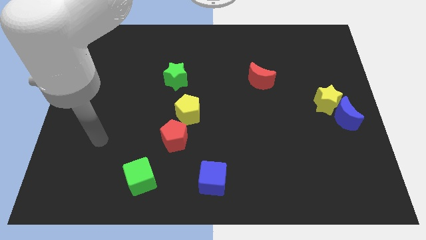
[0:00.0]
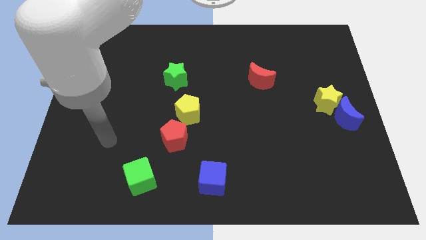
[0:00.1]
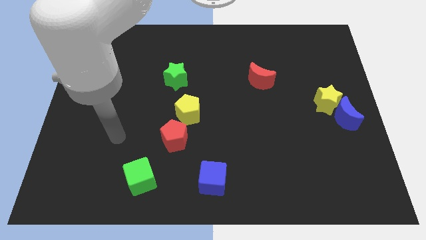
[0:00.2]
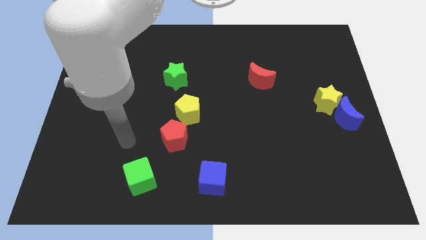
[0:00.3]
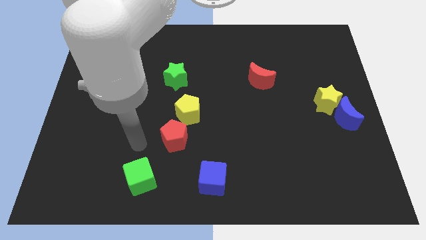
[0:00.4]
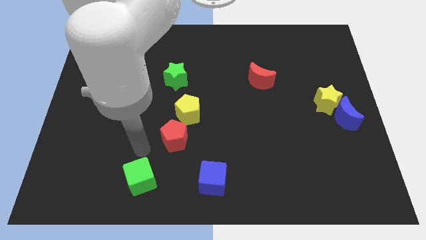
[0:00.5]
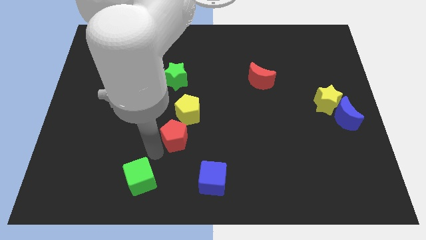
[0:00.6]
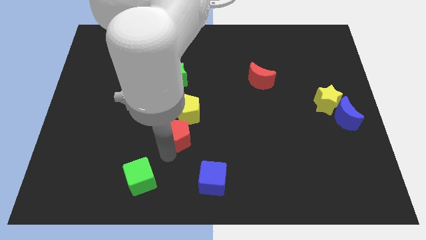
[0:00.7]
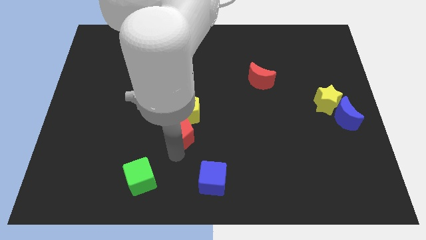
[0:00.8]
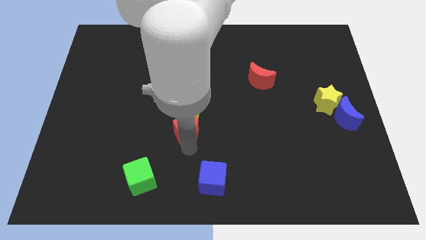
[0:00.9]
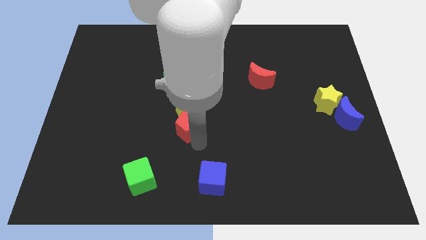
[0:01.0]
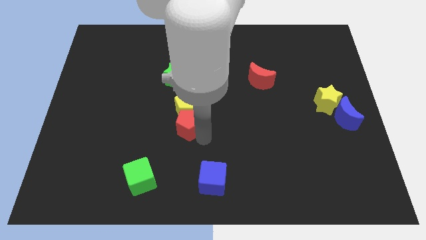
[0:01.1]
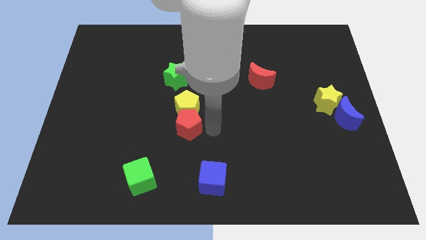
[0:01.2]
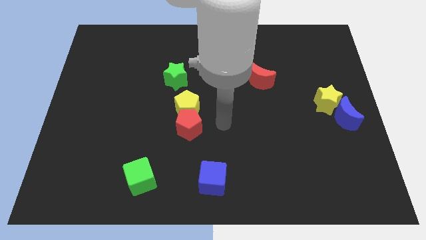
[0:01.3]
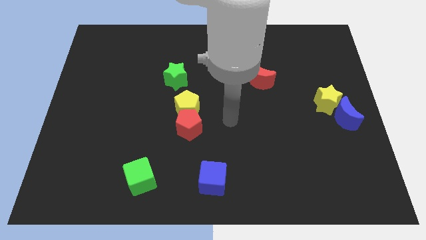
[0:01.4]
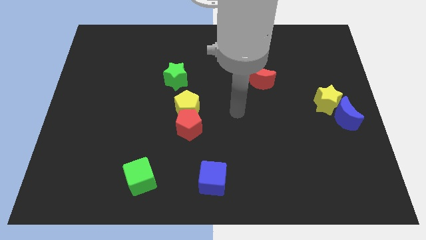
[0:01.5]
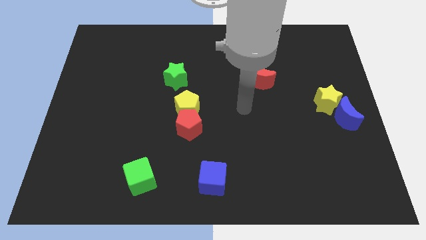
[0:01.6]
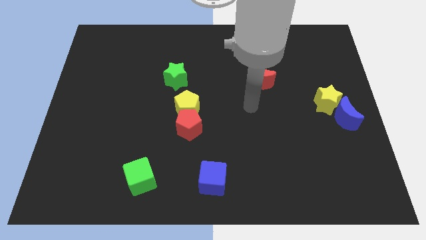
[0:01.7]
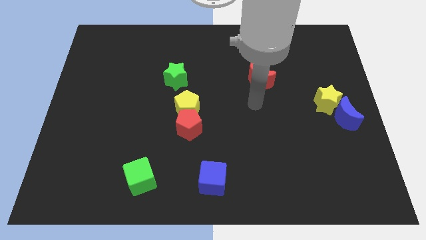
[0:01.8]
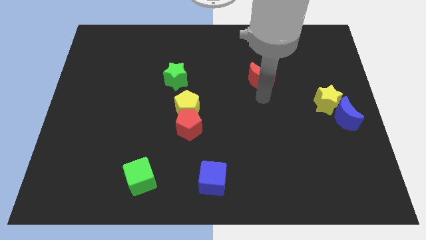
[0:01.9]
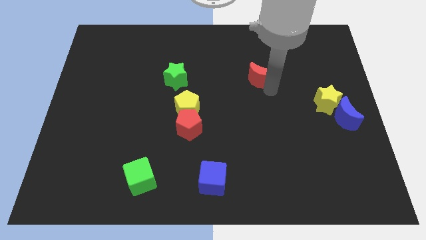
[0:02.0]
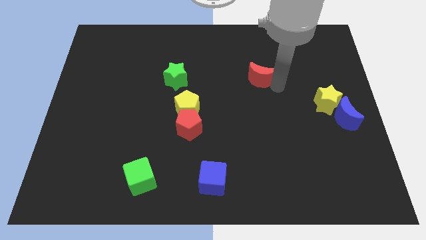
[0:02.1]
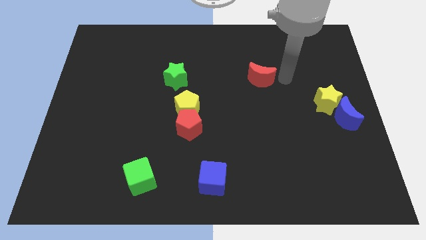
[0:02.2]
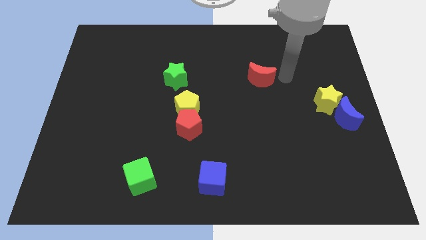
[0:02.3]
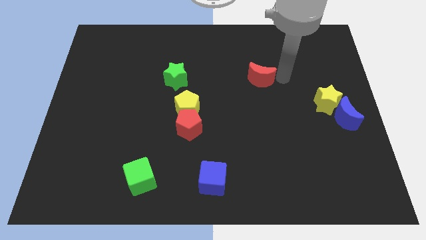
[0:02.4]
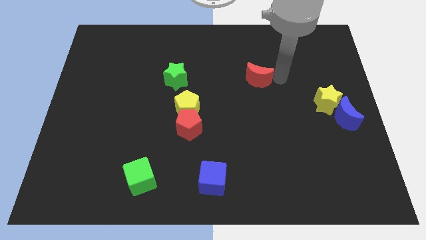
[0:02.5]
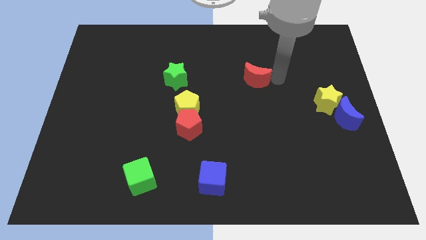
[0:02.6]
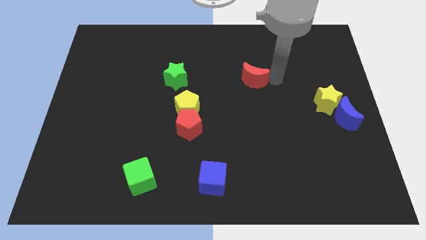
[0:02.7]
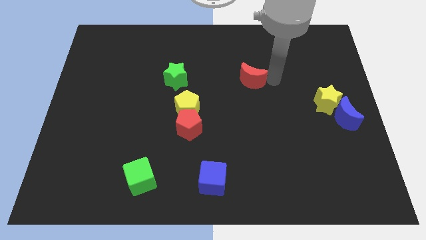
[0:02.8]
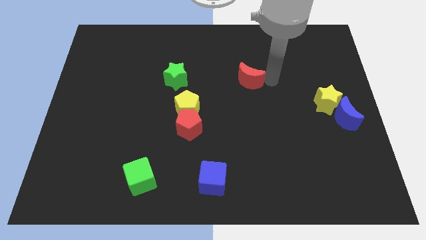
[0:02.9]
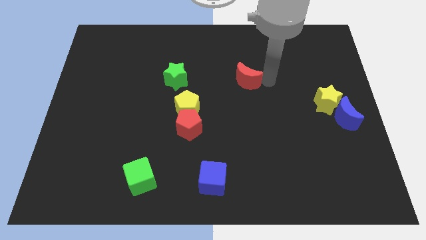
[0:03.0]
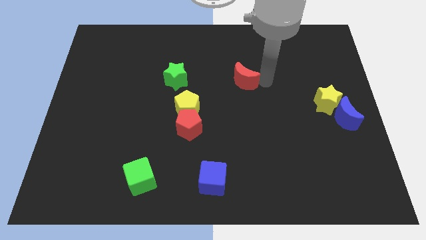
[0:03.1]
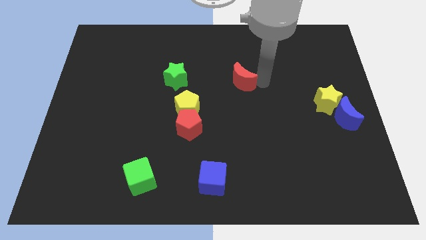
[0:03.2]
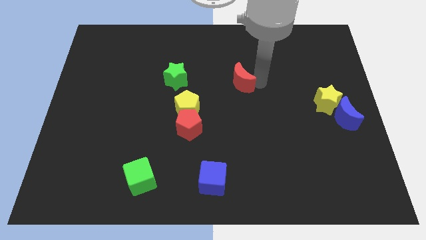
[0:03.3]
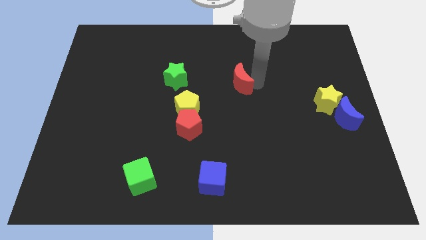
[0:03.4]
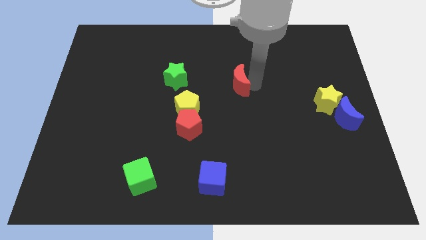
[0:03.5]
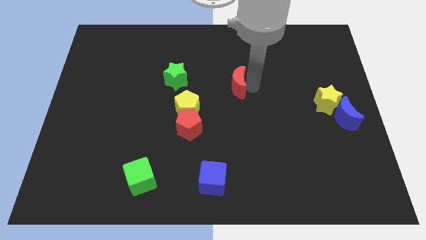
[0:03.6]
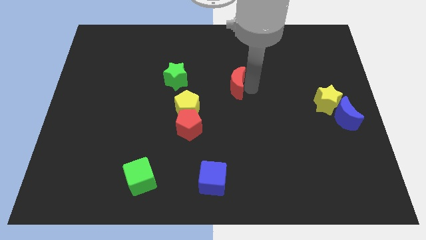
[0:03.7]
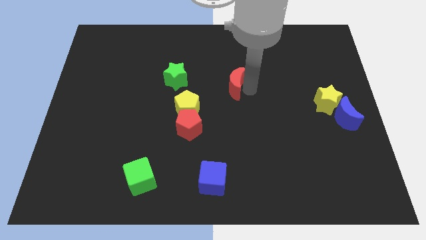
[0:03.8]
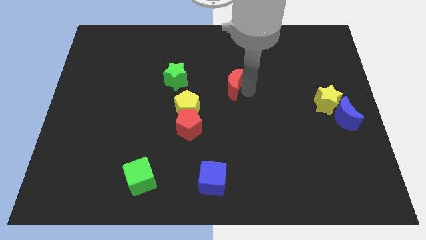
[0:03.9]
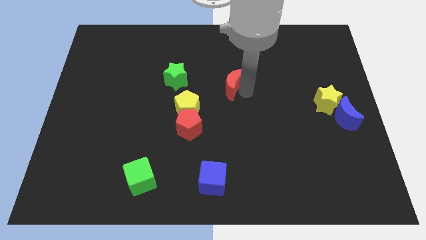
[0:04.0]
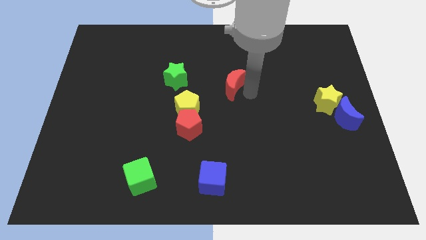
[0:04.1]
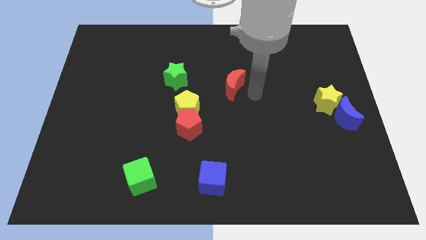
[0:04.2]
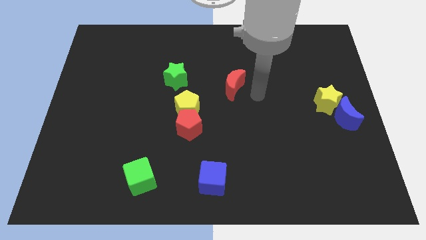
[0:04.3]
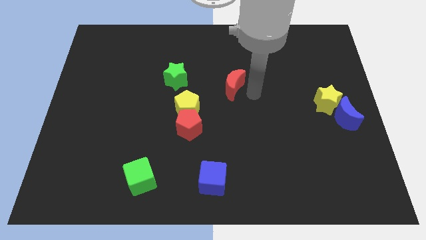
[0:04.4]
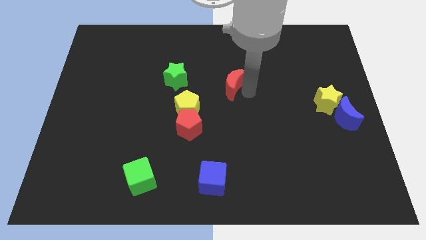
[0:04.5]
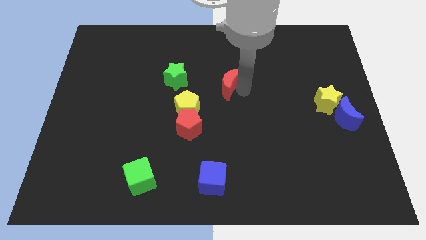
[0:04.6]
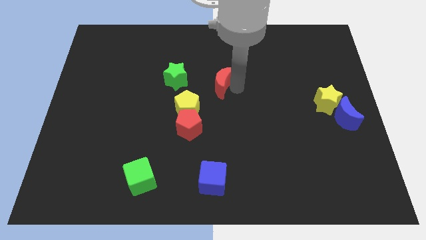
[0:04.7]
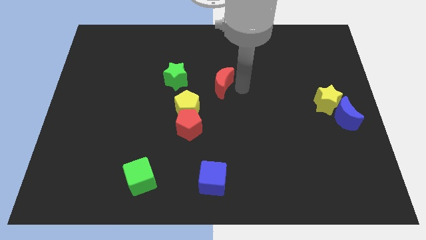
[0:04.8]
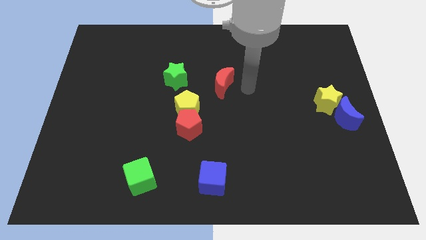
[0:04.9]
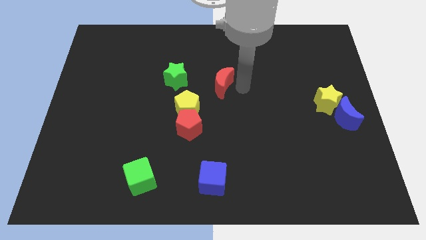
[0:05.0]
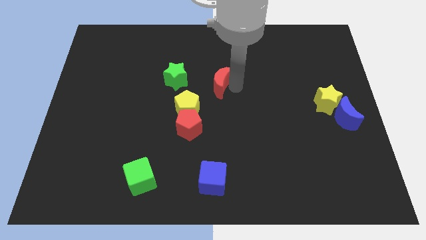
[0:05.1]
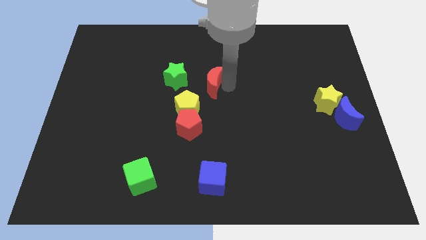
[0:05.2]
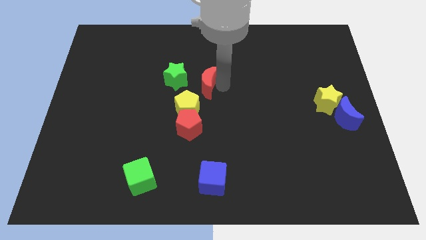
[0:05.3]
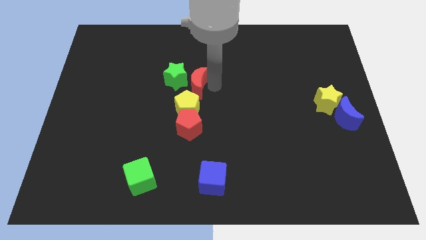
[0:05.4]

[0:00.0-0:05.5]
slide the red moon close to the green star

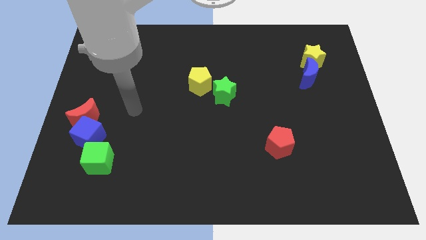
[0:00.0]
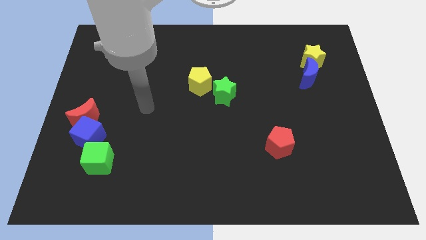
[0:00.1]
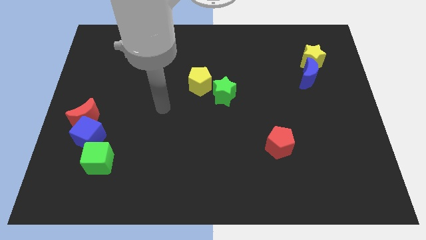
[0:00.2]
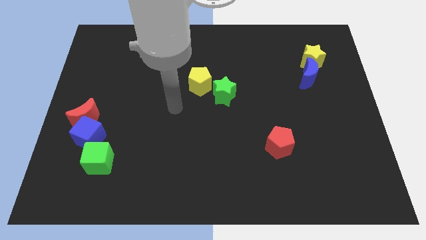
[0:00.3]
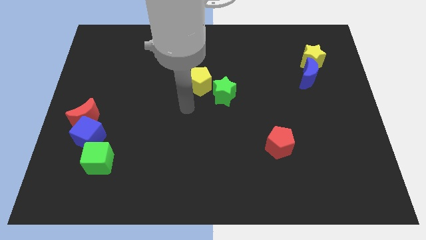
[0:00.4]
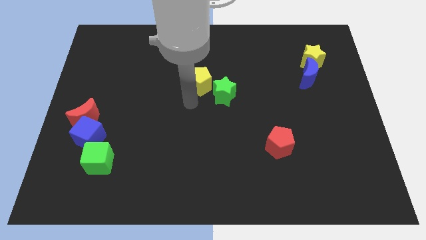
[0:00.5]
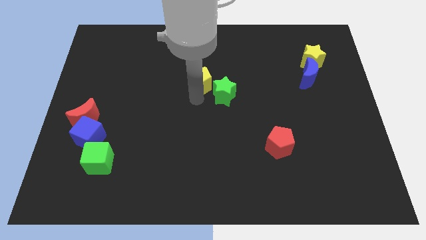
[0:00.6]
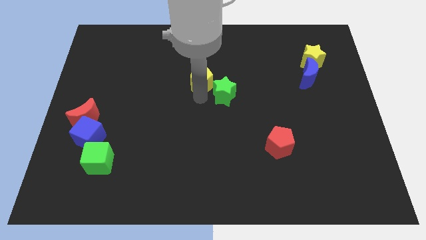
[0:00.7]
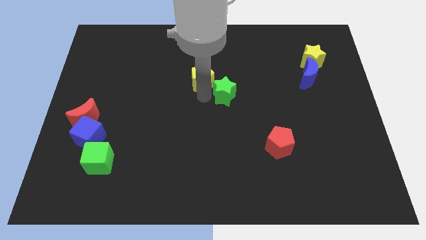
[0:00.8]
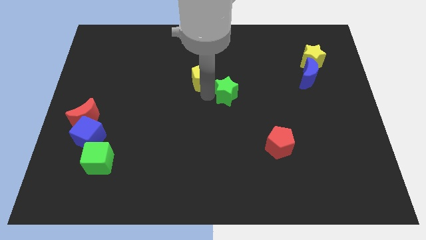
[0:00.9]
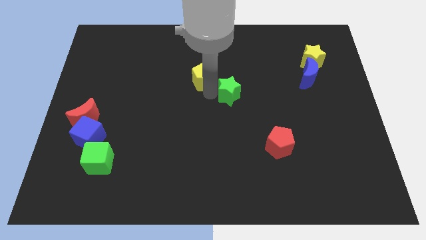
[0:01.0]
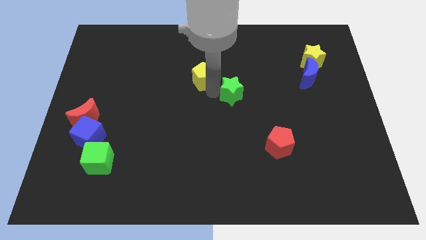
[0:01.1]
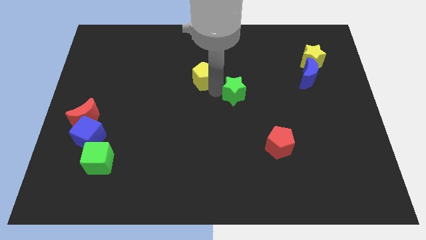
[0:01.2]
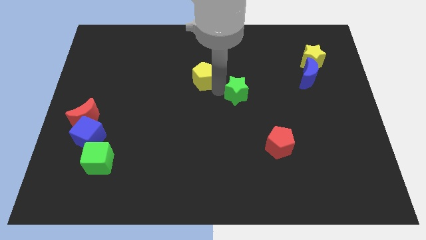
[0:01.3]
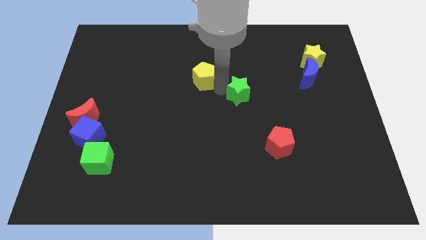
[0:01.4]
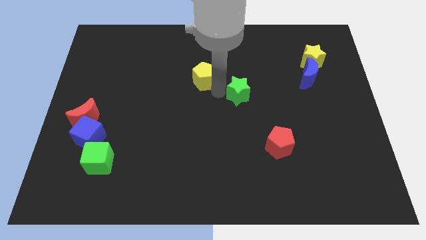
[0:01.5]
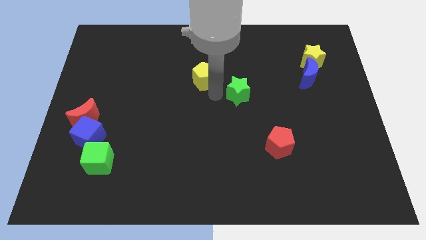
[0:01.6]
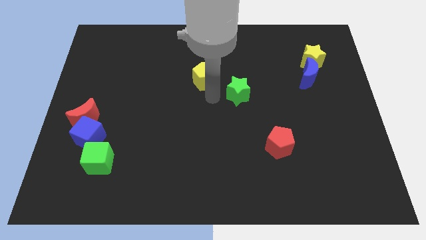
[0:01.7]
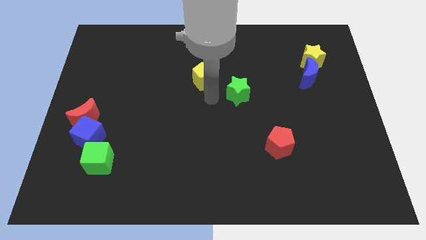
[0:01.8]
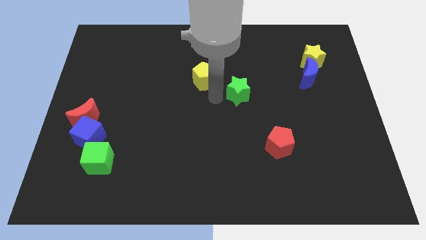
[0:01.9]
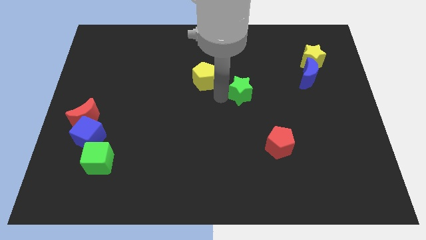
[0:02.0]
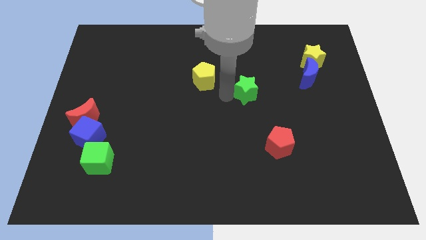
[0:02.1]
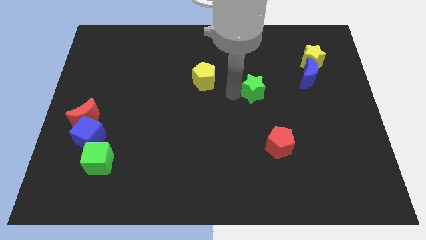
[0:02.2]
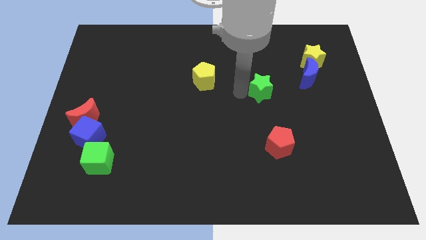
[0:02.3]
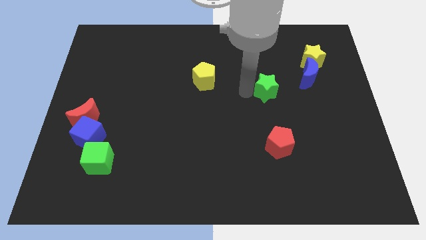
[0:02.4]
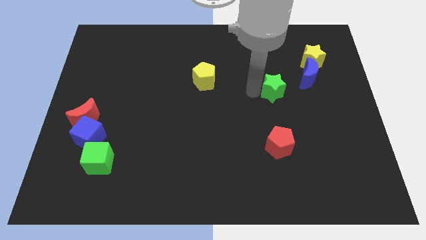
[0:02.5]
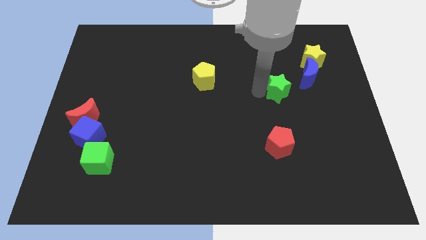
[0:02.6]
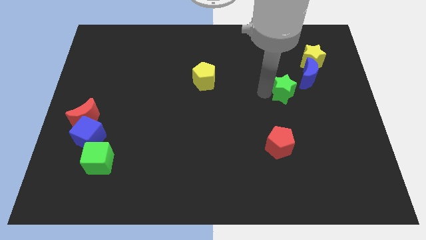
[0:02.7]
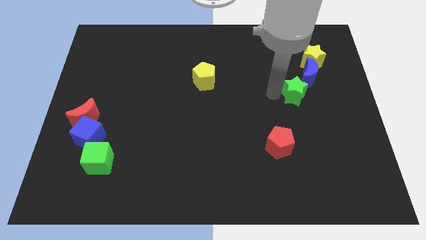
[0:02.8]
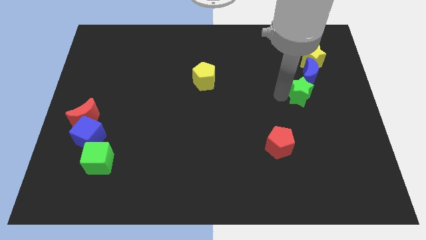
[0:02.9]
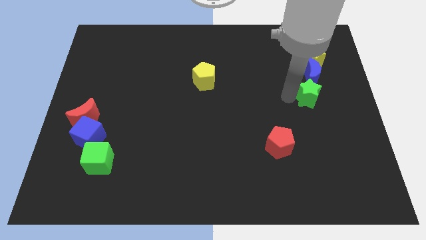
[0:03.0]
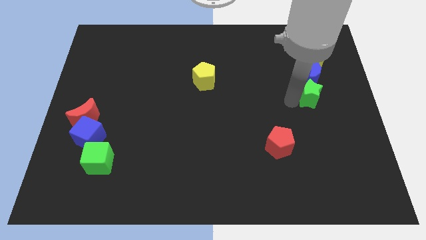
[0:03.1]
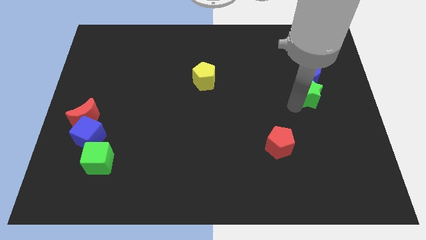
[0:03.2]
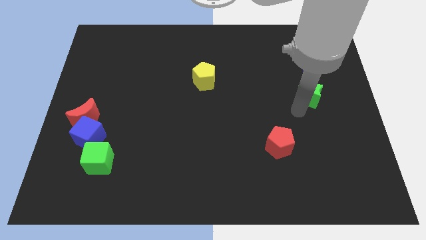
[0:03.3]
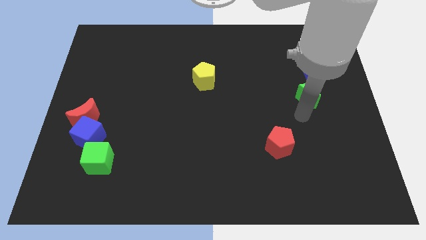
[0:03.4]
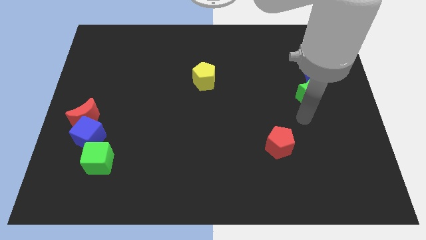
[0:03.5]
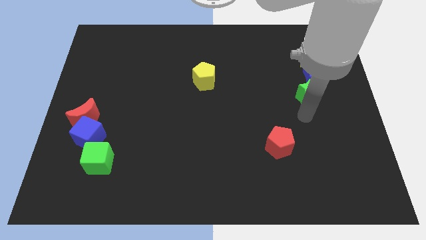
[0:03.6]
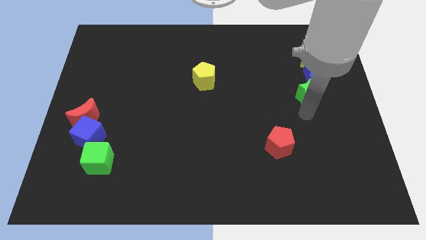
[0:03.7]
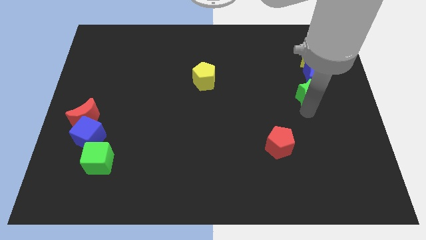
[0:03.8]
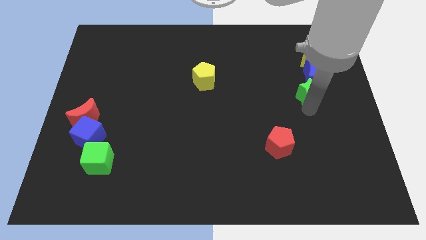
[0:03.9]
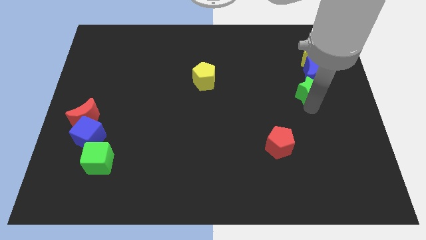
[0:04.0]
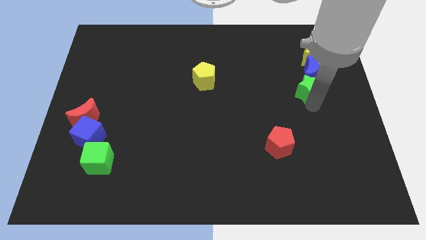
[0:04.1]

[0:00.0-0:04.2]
move the green star close to the blue moon
